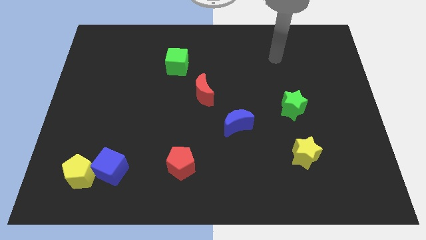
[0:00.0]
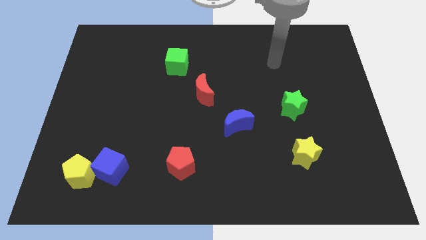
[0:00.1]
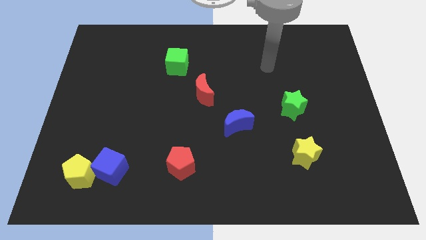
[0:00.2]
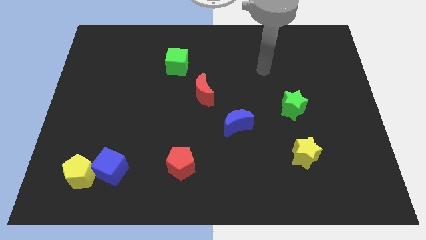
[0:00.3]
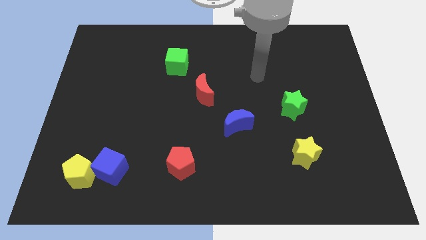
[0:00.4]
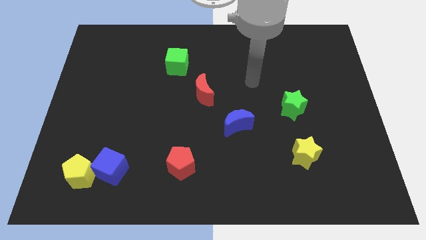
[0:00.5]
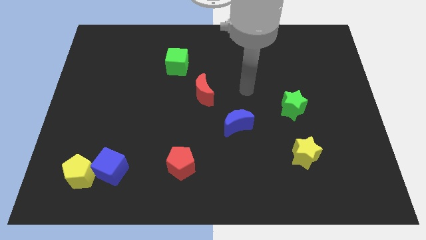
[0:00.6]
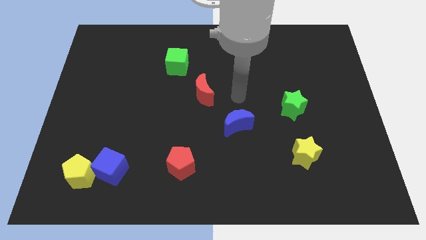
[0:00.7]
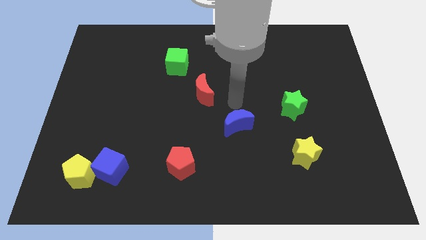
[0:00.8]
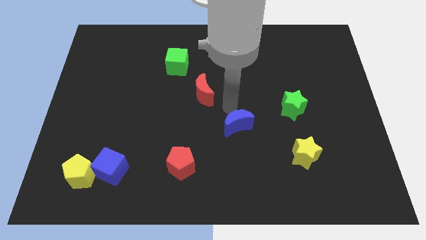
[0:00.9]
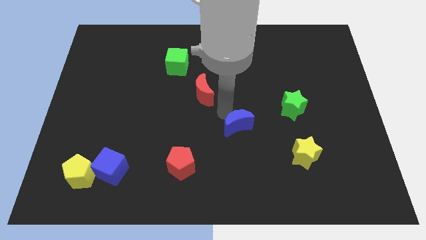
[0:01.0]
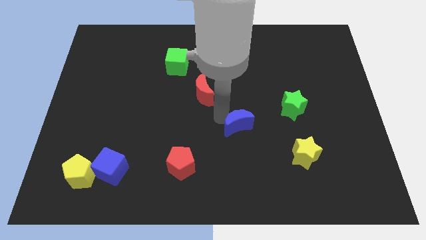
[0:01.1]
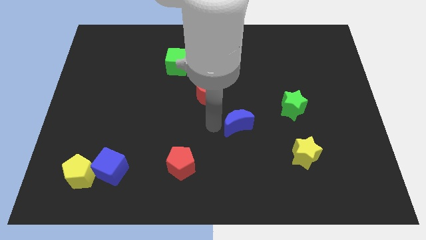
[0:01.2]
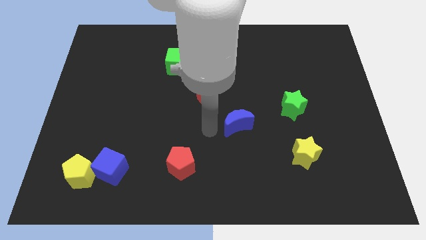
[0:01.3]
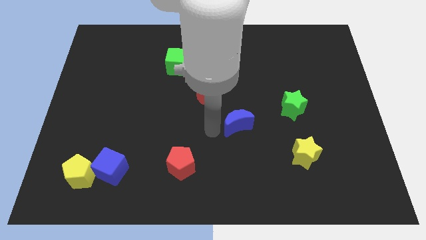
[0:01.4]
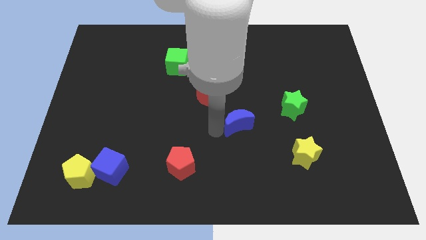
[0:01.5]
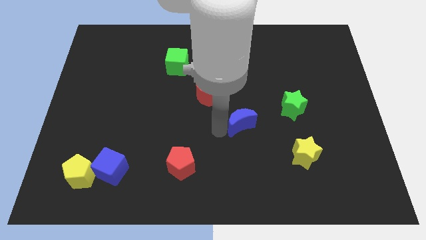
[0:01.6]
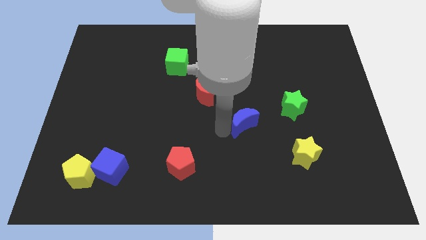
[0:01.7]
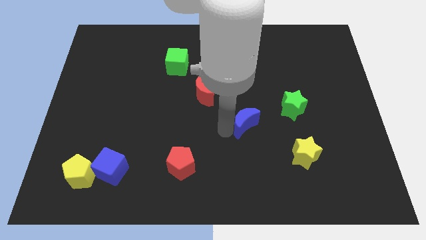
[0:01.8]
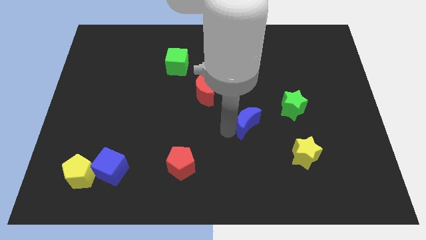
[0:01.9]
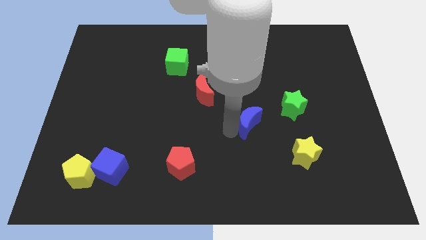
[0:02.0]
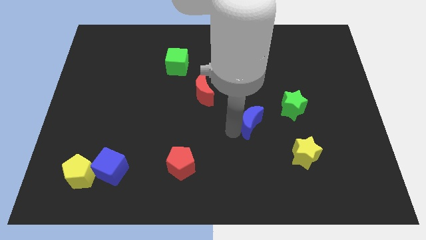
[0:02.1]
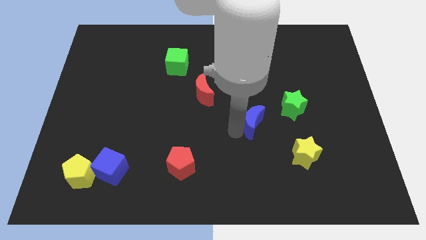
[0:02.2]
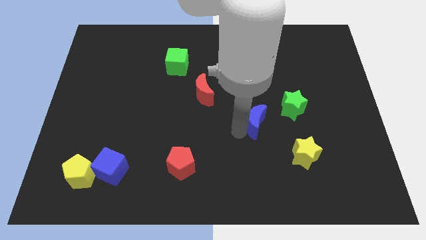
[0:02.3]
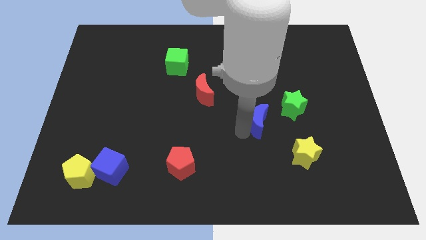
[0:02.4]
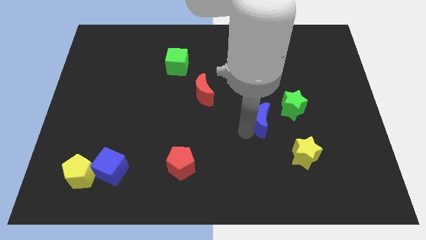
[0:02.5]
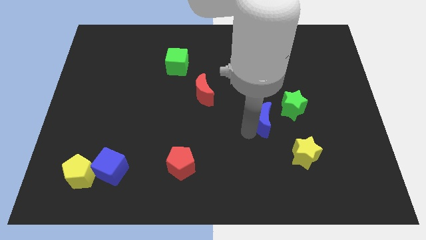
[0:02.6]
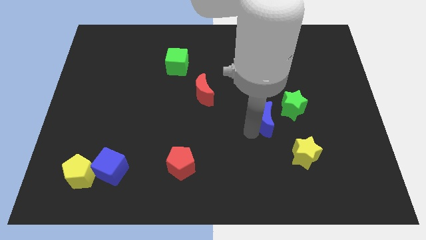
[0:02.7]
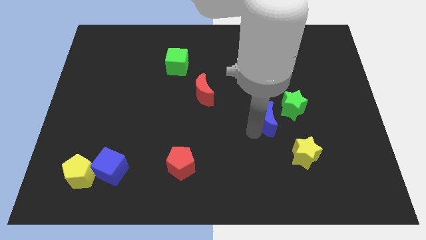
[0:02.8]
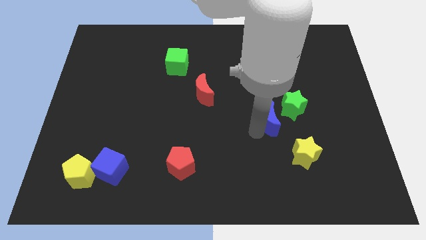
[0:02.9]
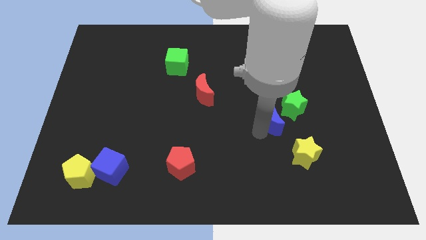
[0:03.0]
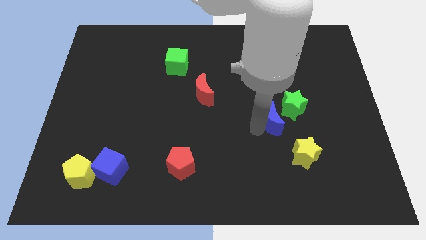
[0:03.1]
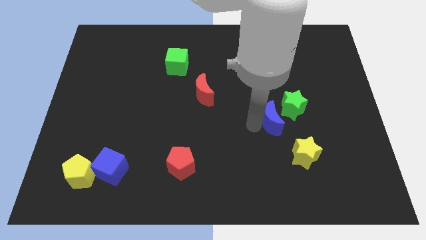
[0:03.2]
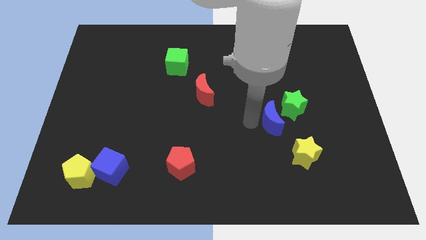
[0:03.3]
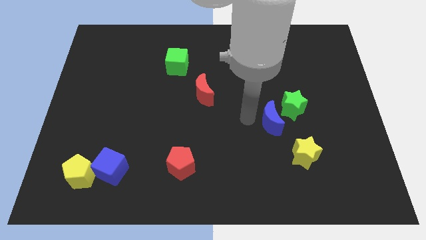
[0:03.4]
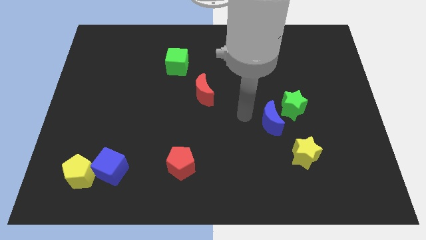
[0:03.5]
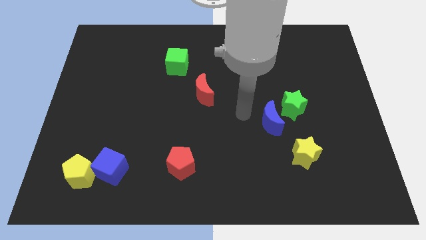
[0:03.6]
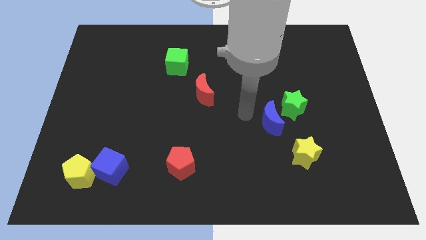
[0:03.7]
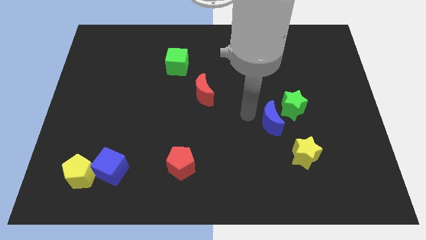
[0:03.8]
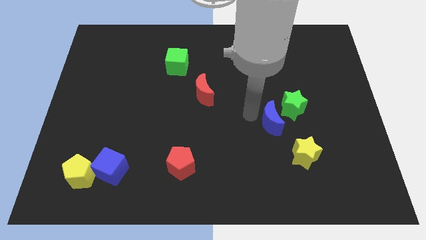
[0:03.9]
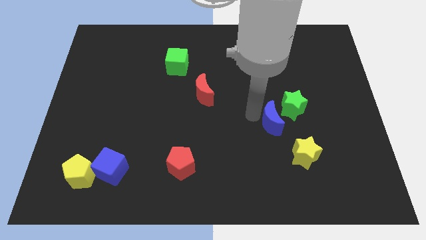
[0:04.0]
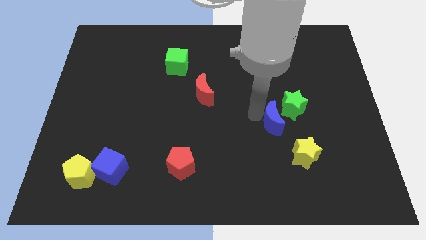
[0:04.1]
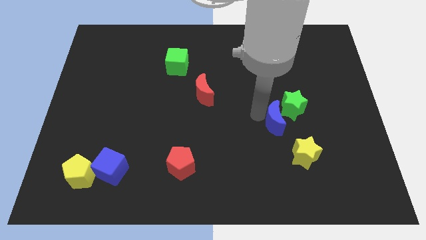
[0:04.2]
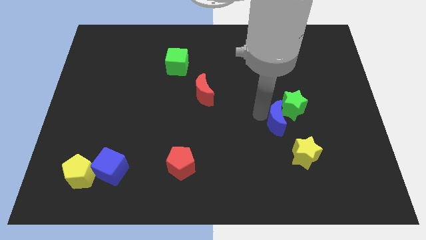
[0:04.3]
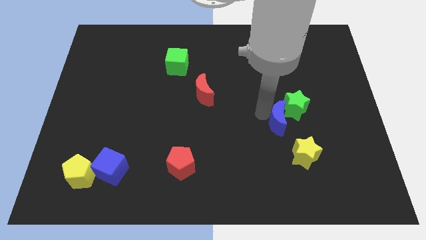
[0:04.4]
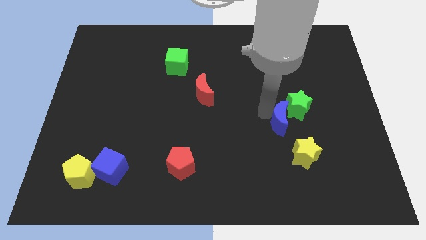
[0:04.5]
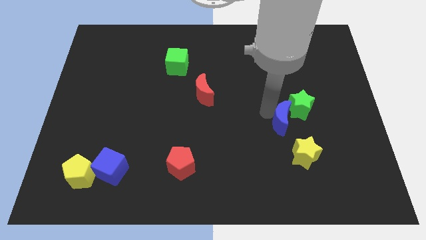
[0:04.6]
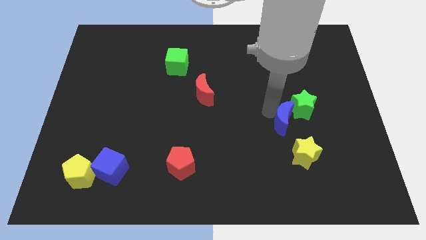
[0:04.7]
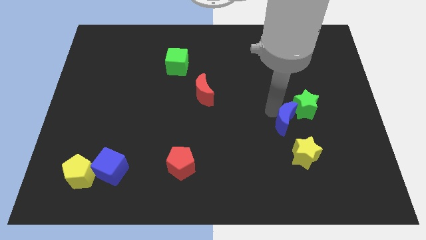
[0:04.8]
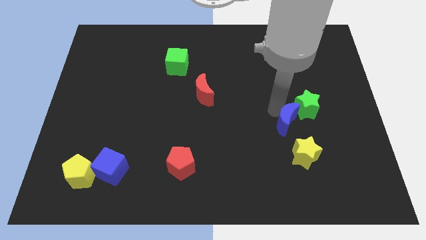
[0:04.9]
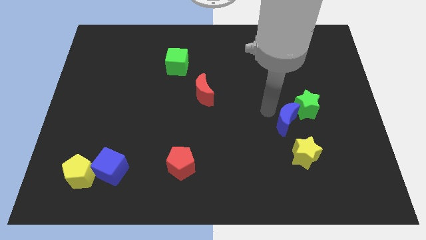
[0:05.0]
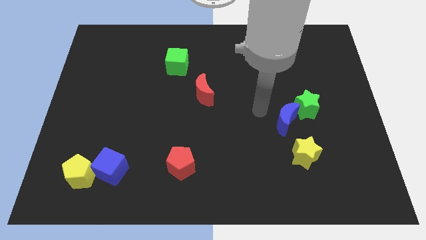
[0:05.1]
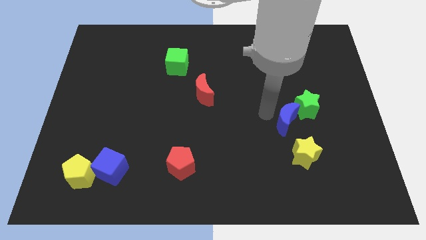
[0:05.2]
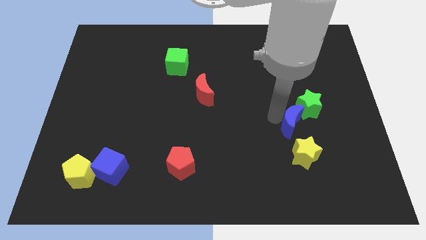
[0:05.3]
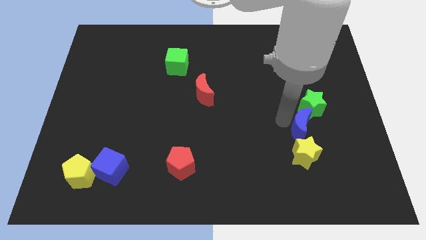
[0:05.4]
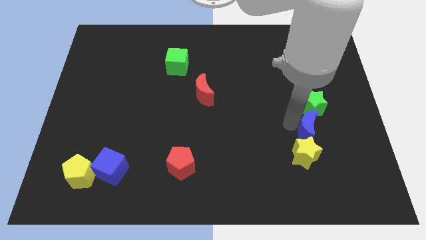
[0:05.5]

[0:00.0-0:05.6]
move the blue moon to the top right of the yellow star

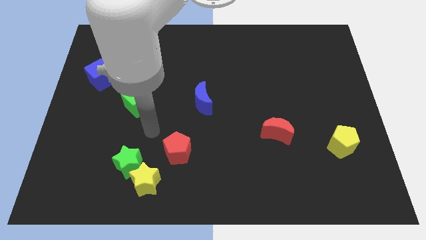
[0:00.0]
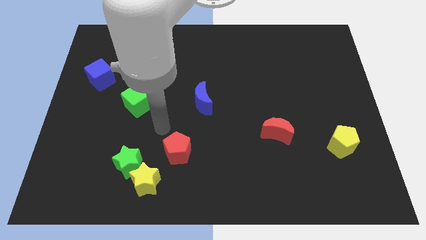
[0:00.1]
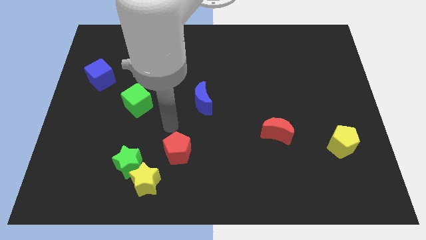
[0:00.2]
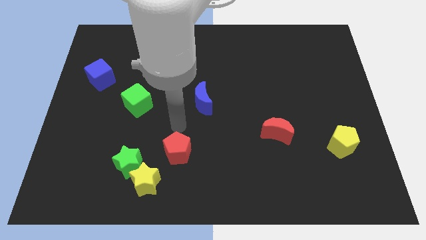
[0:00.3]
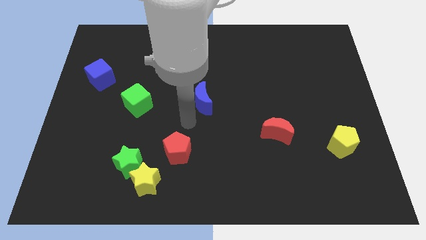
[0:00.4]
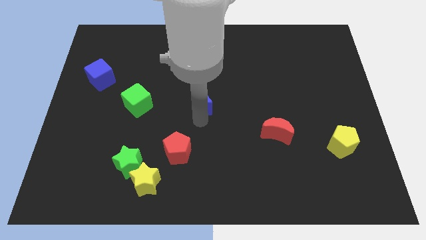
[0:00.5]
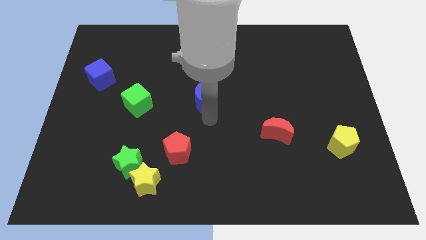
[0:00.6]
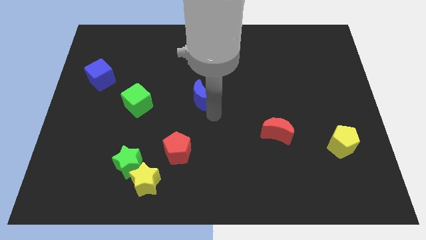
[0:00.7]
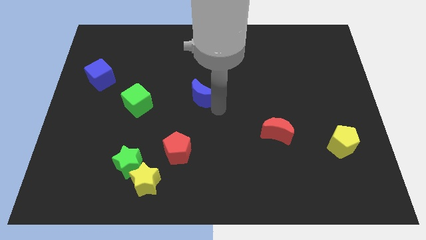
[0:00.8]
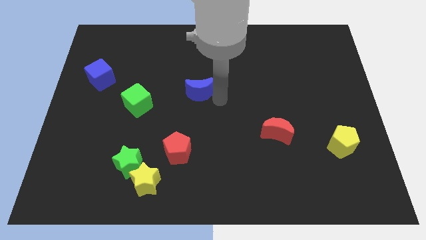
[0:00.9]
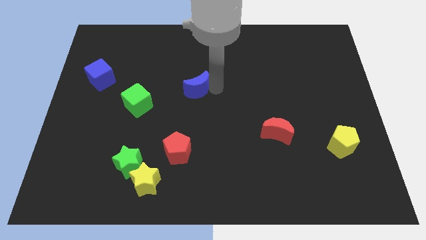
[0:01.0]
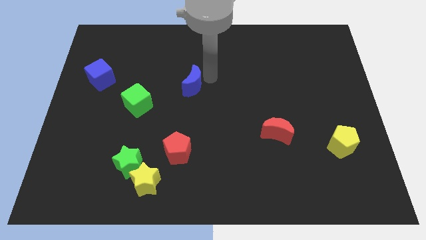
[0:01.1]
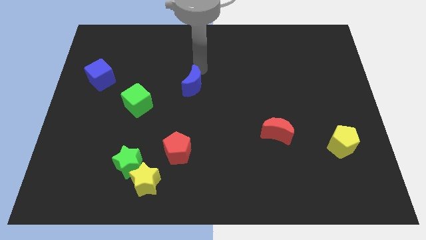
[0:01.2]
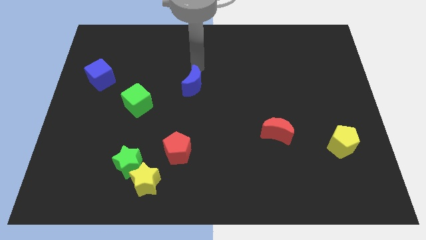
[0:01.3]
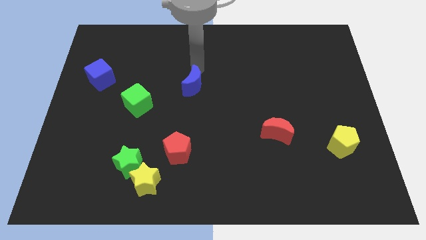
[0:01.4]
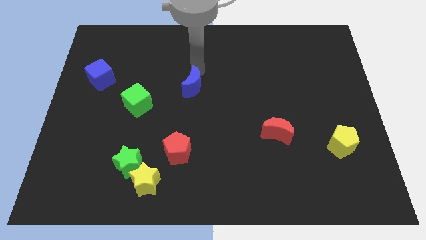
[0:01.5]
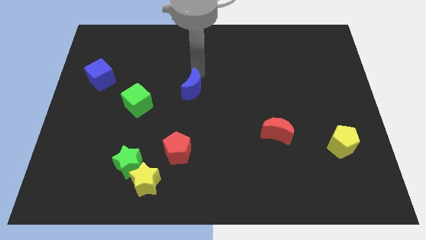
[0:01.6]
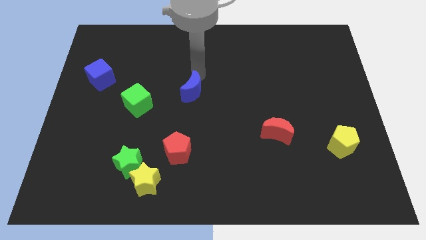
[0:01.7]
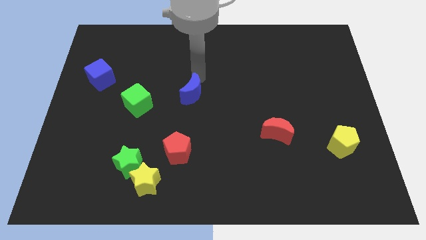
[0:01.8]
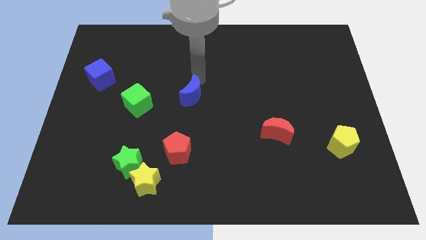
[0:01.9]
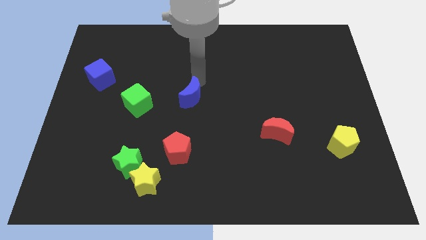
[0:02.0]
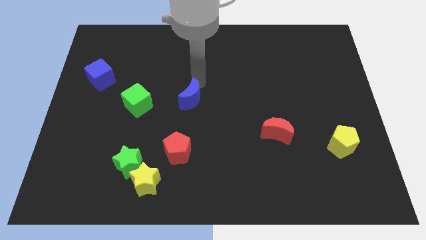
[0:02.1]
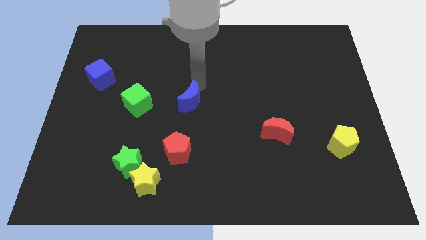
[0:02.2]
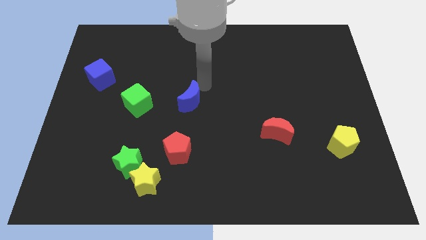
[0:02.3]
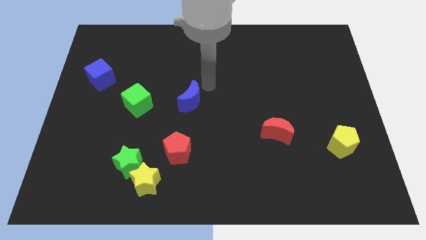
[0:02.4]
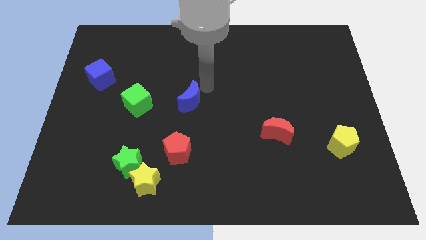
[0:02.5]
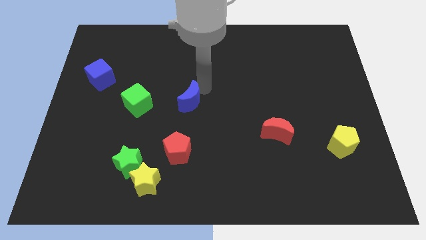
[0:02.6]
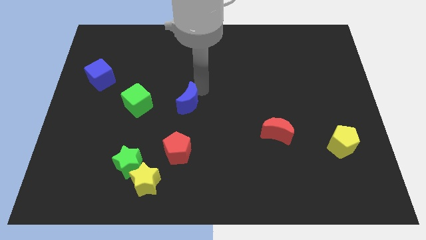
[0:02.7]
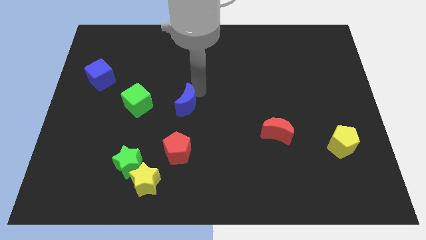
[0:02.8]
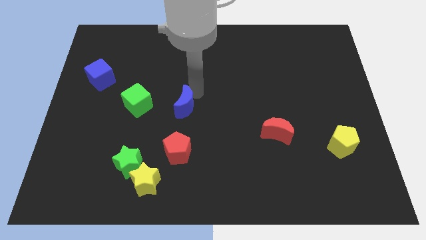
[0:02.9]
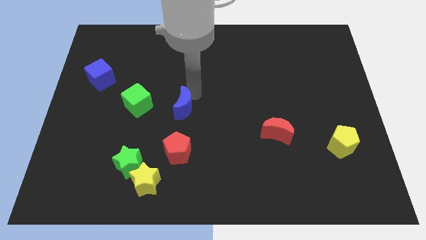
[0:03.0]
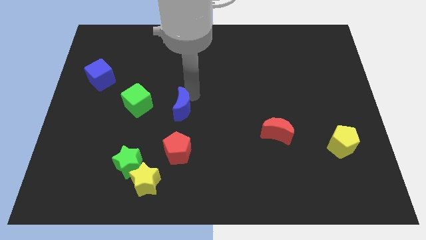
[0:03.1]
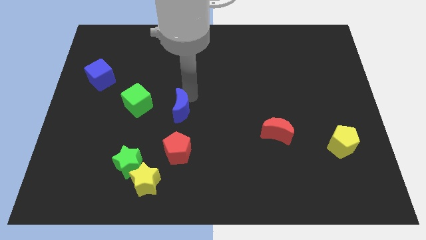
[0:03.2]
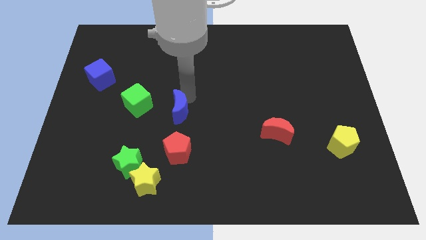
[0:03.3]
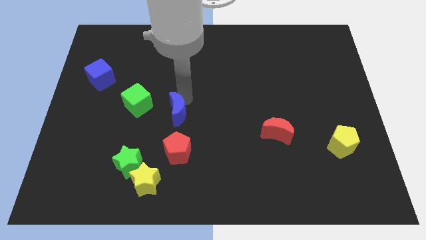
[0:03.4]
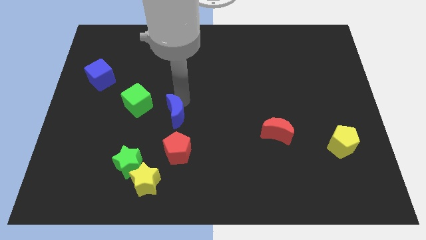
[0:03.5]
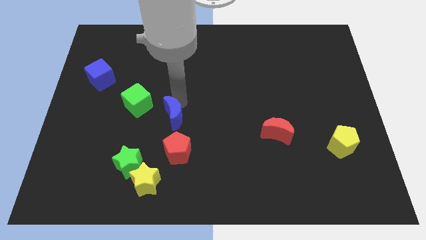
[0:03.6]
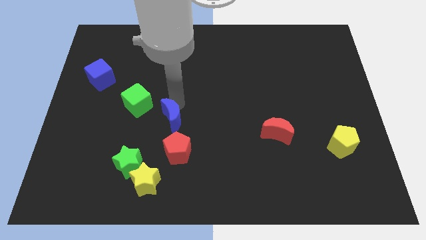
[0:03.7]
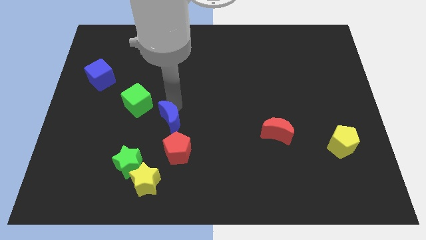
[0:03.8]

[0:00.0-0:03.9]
slide the blue moon to the top left of the red pentagon
